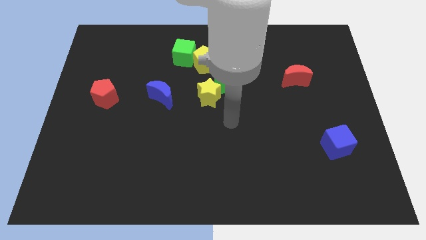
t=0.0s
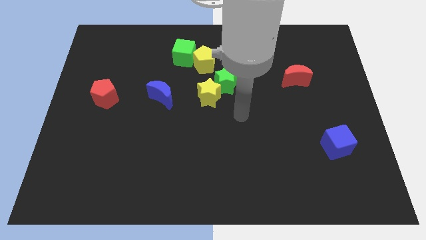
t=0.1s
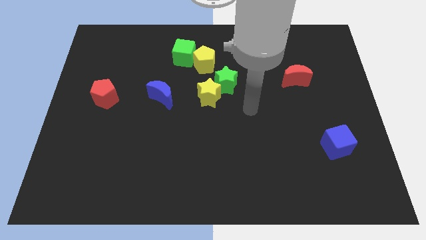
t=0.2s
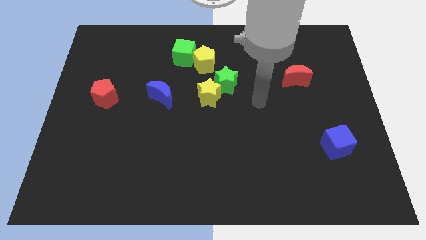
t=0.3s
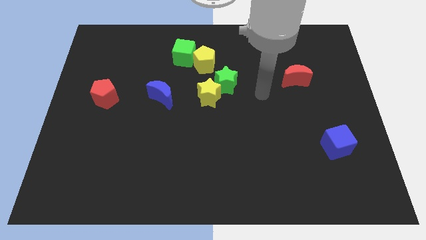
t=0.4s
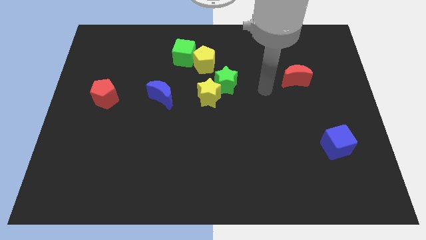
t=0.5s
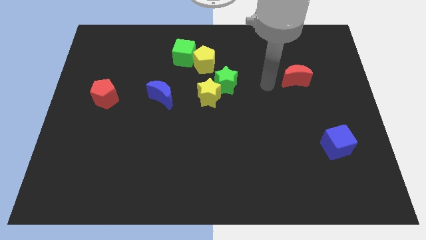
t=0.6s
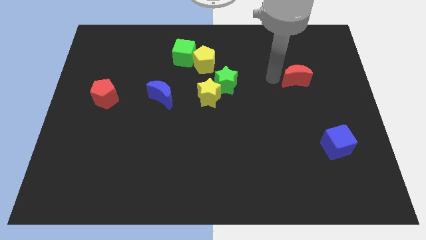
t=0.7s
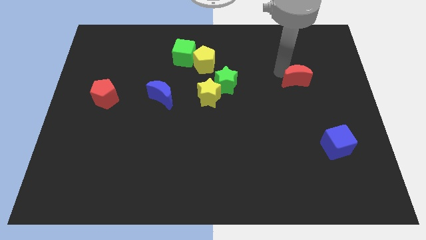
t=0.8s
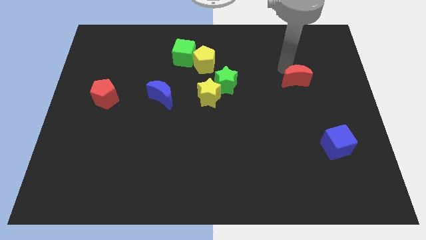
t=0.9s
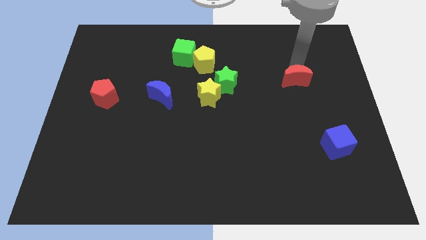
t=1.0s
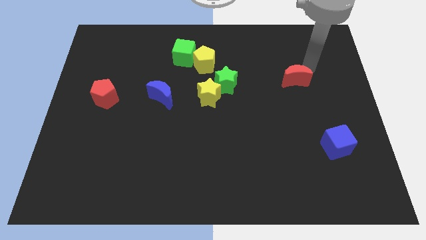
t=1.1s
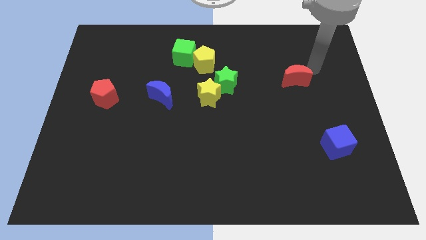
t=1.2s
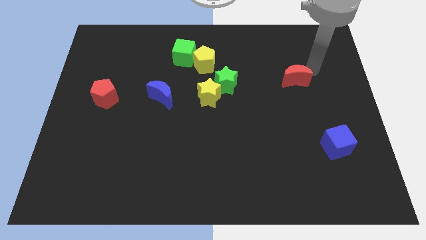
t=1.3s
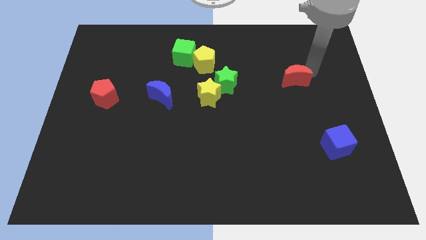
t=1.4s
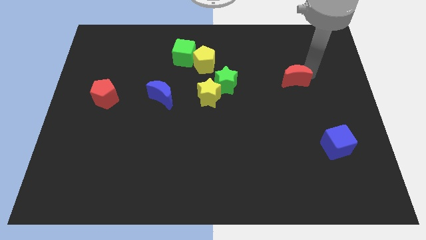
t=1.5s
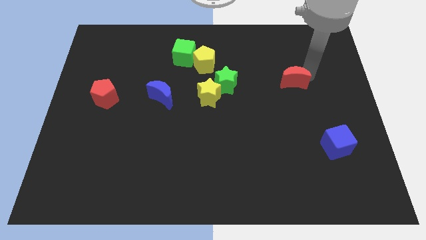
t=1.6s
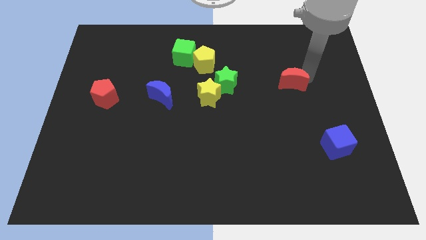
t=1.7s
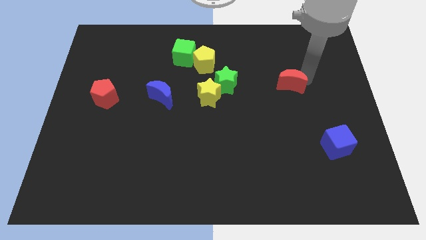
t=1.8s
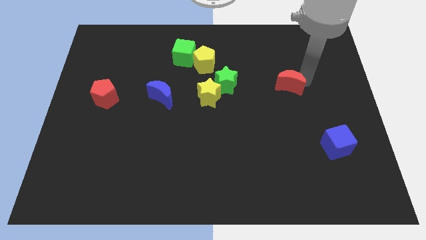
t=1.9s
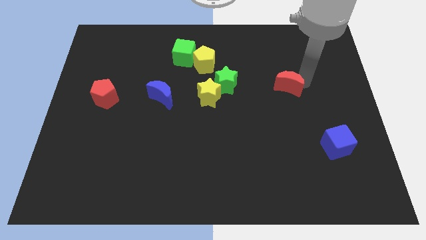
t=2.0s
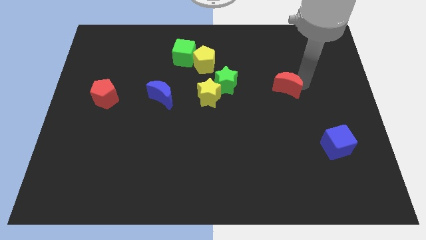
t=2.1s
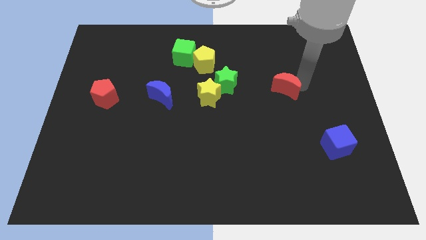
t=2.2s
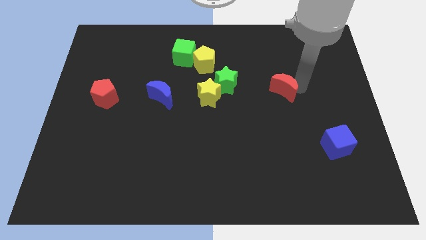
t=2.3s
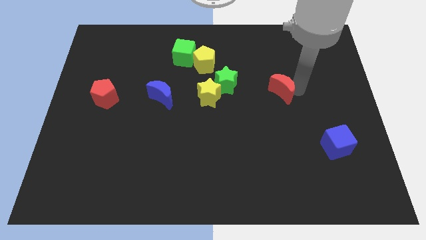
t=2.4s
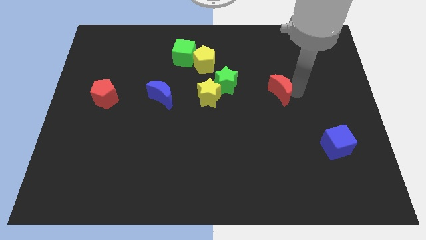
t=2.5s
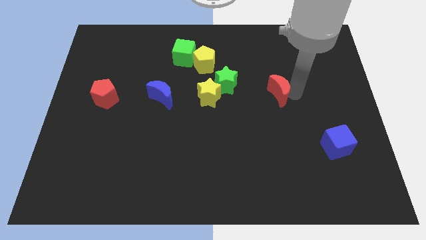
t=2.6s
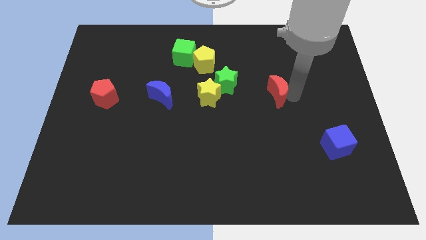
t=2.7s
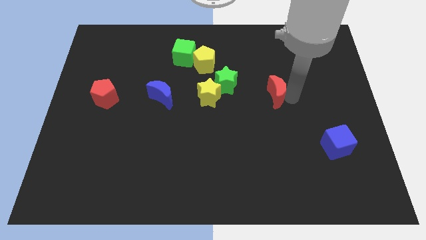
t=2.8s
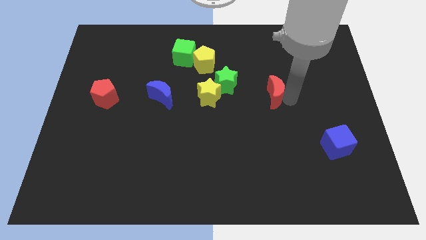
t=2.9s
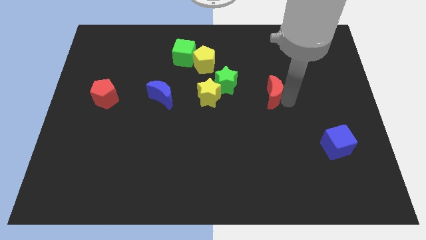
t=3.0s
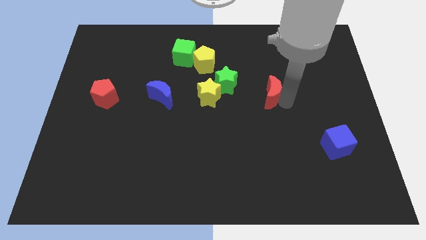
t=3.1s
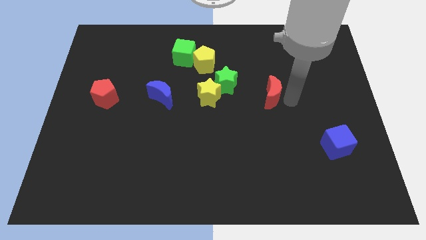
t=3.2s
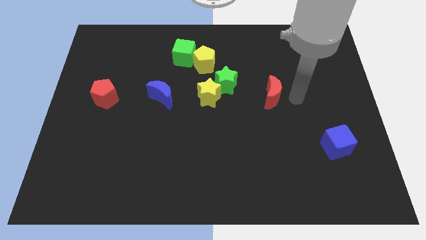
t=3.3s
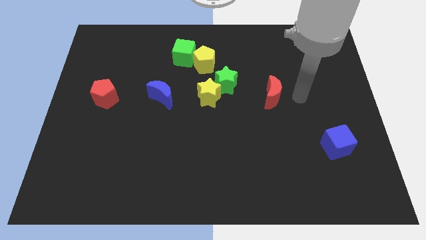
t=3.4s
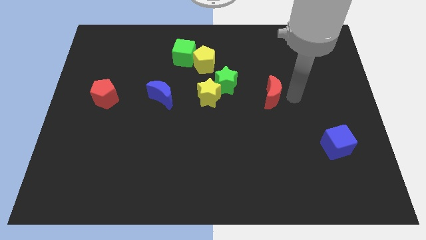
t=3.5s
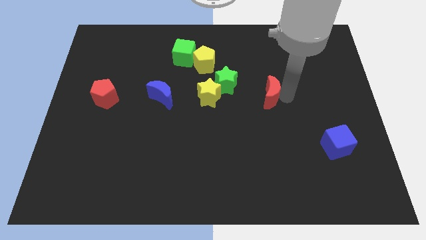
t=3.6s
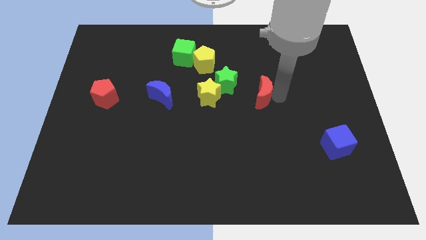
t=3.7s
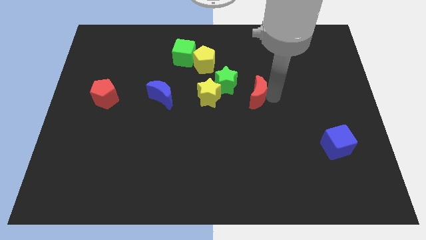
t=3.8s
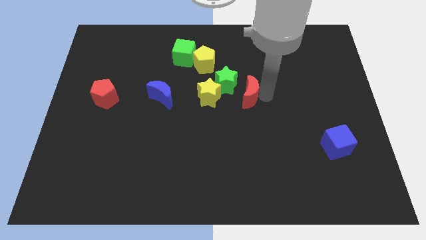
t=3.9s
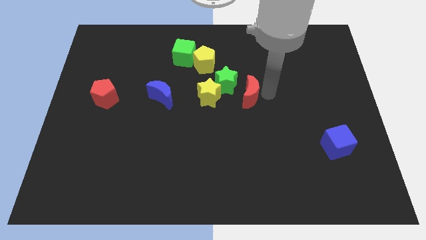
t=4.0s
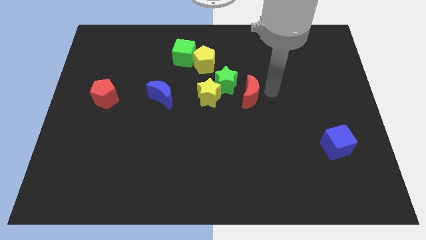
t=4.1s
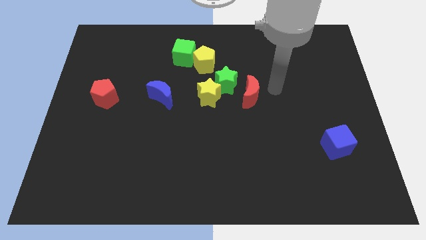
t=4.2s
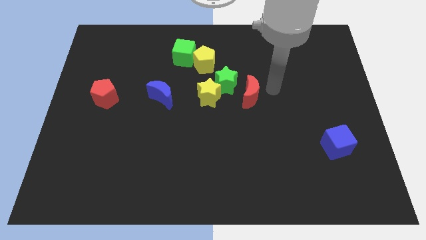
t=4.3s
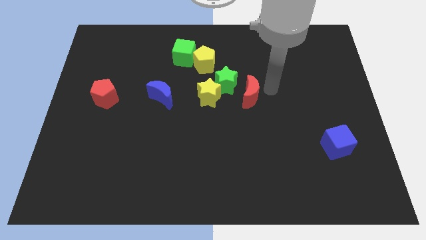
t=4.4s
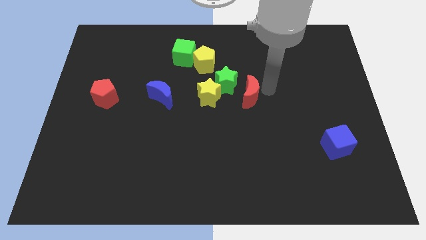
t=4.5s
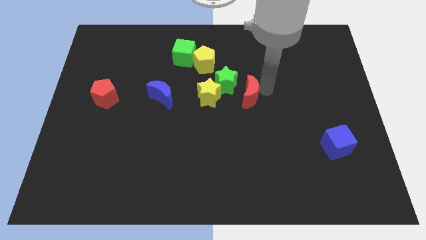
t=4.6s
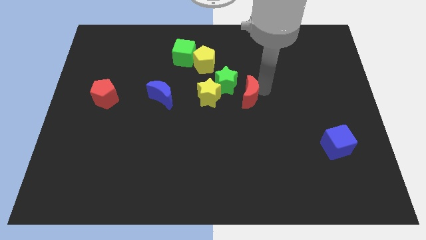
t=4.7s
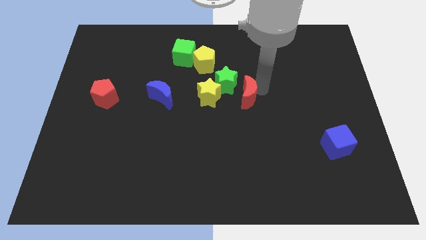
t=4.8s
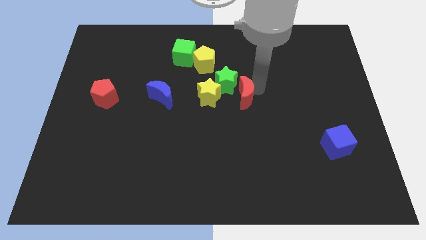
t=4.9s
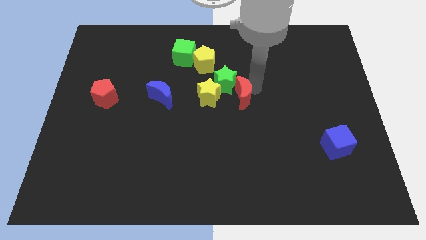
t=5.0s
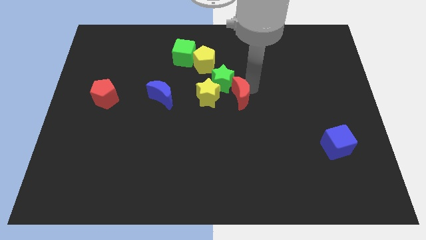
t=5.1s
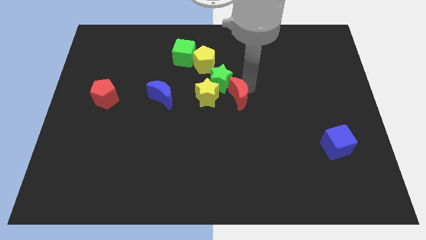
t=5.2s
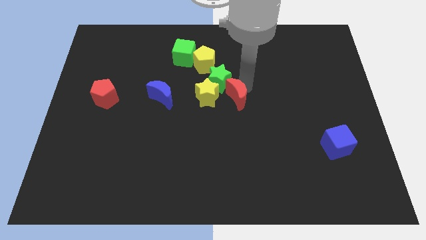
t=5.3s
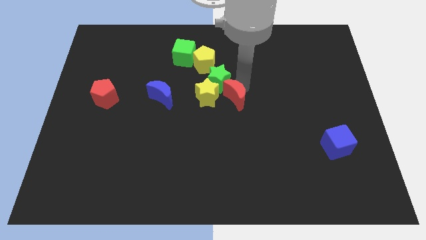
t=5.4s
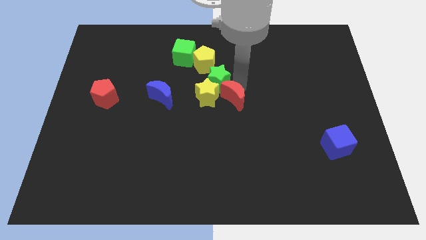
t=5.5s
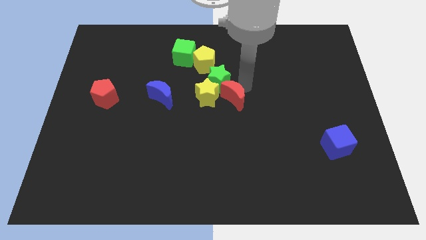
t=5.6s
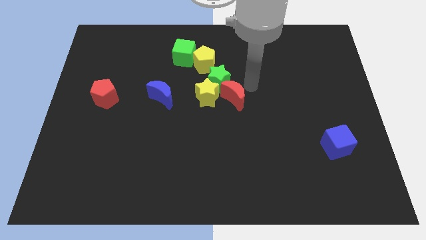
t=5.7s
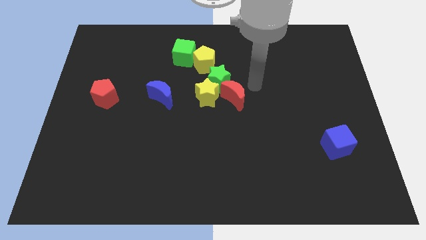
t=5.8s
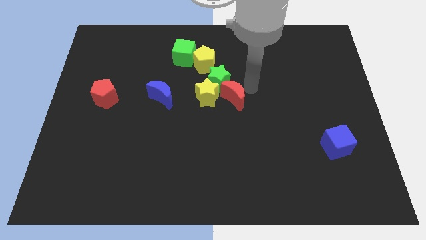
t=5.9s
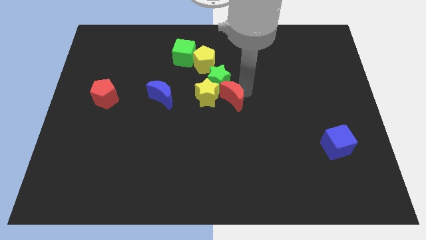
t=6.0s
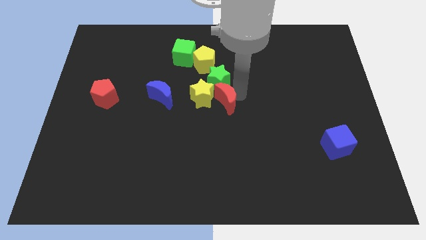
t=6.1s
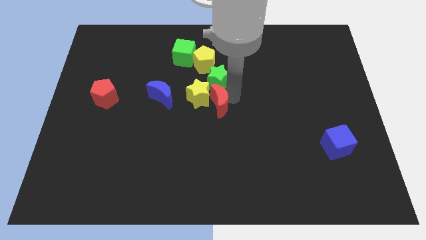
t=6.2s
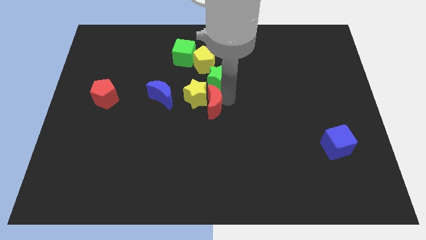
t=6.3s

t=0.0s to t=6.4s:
move the red moon diagonally down and to the left of the green star

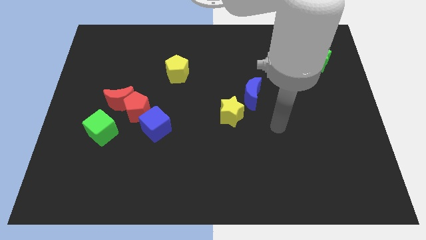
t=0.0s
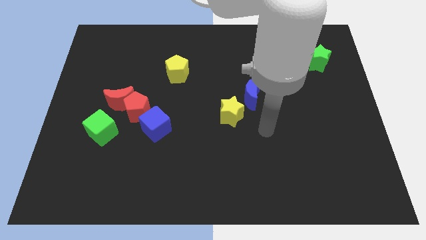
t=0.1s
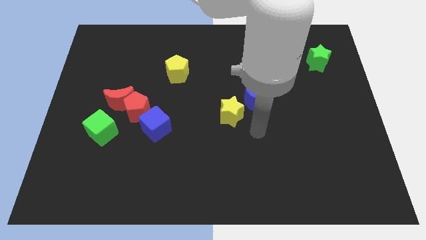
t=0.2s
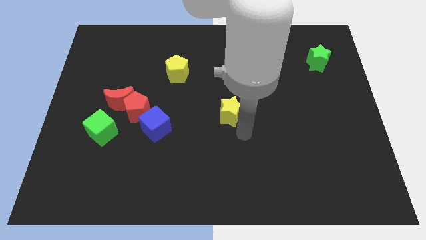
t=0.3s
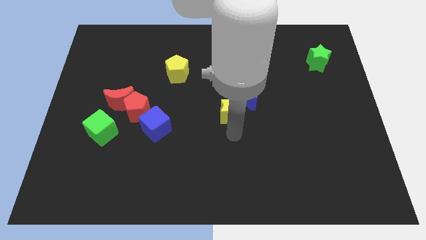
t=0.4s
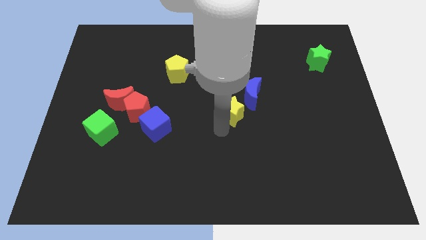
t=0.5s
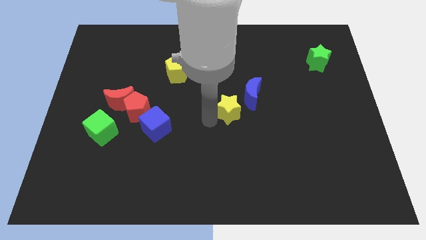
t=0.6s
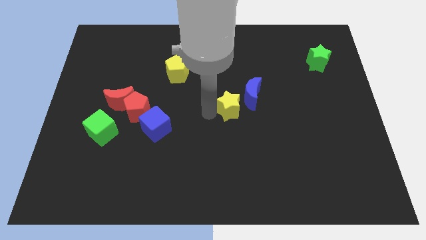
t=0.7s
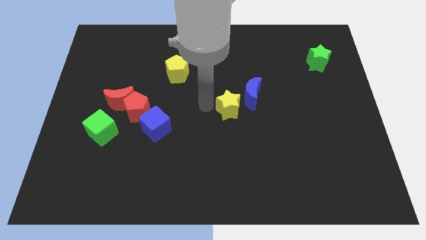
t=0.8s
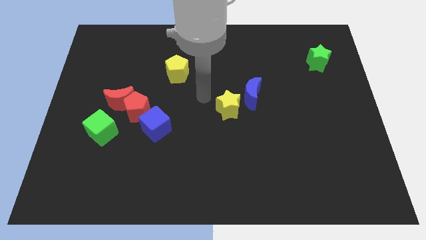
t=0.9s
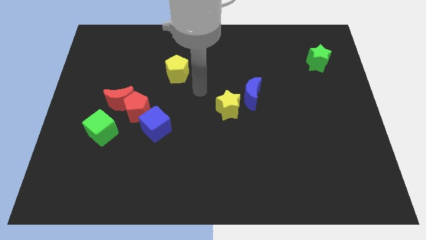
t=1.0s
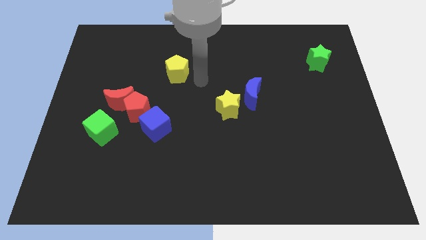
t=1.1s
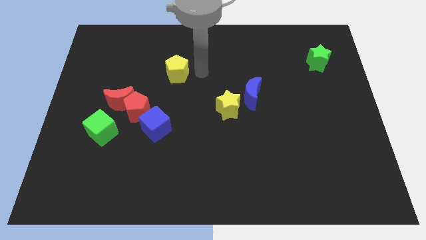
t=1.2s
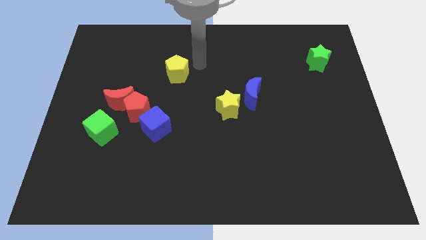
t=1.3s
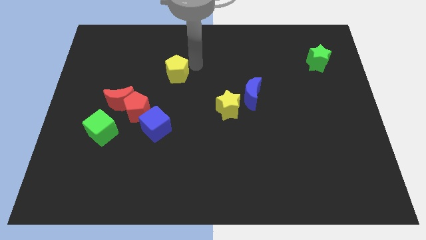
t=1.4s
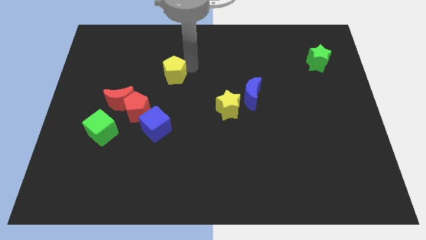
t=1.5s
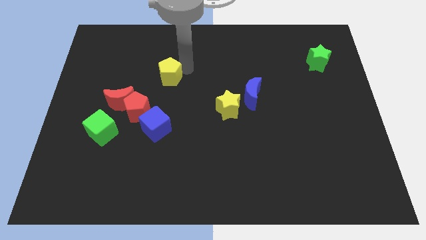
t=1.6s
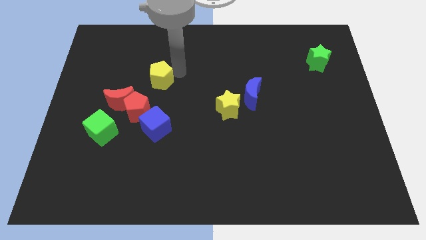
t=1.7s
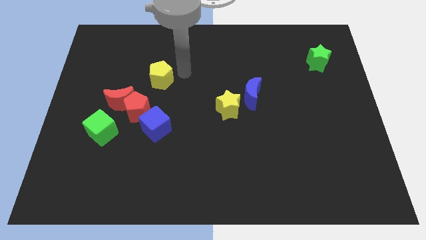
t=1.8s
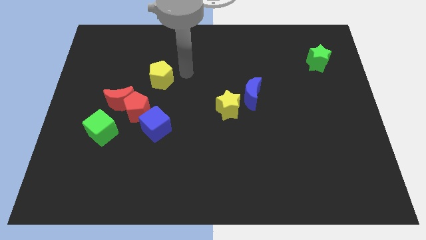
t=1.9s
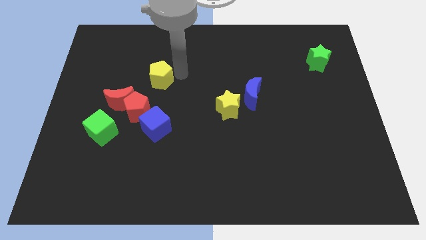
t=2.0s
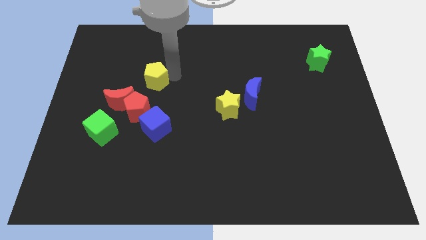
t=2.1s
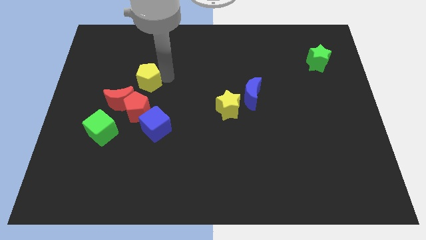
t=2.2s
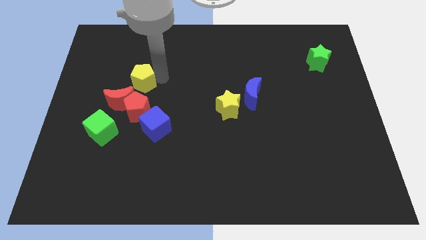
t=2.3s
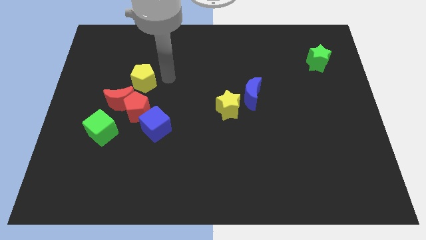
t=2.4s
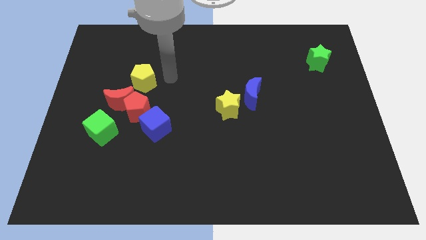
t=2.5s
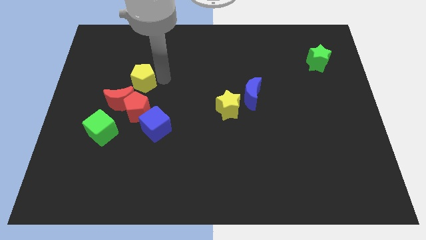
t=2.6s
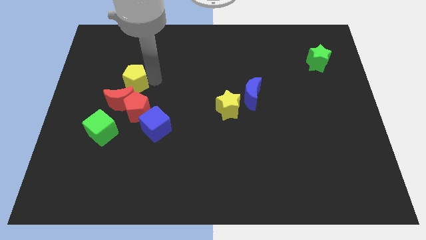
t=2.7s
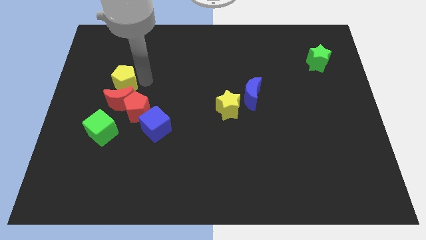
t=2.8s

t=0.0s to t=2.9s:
move the yellow pentagon diagonally up and to the left of the red moon
